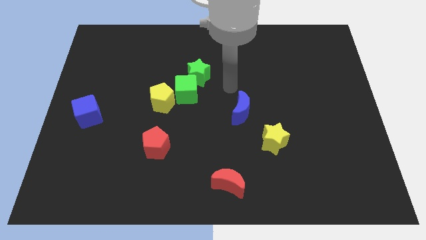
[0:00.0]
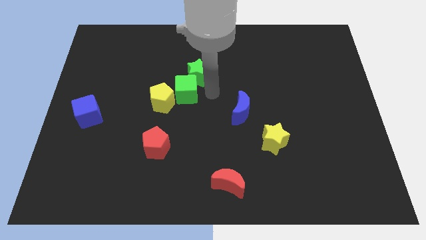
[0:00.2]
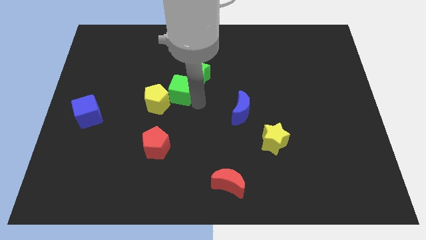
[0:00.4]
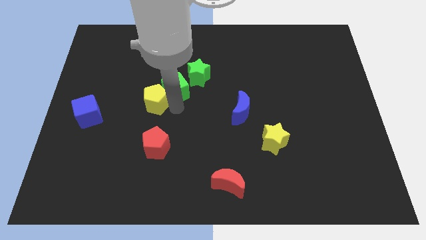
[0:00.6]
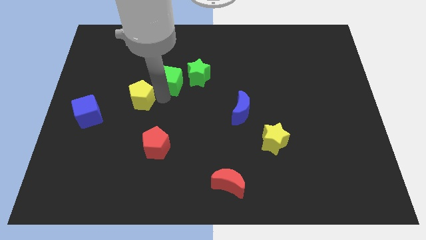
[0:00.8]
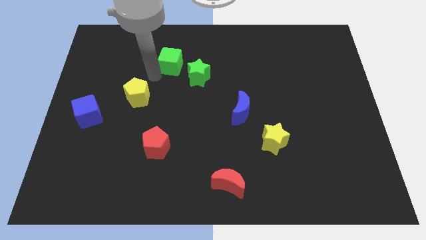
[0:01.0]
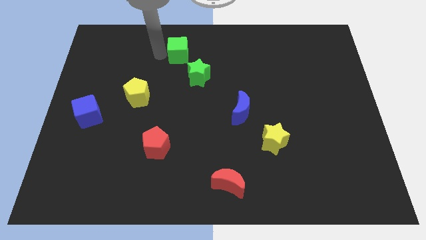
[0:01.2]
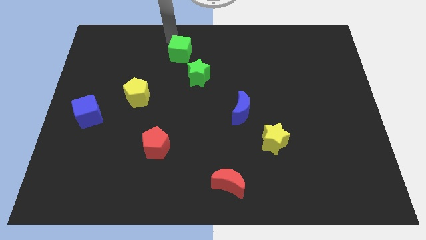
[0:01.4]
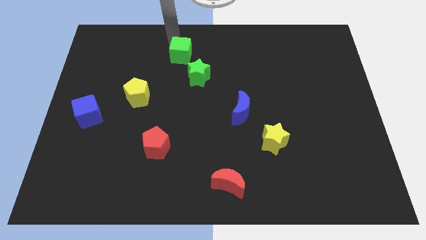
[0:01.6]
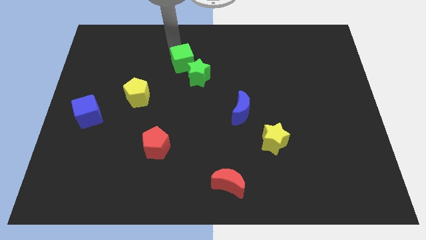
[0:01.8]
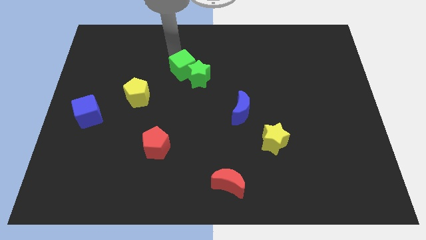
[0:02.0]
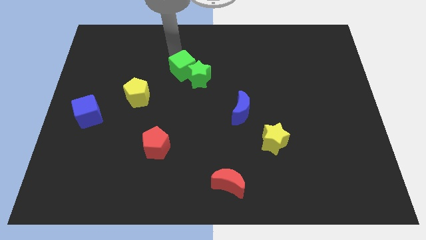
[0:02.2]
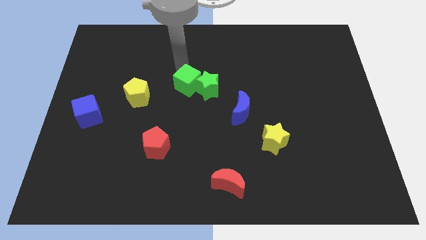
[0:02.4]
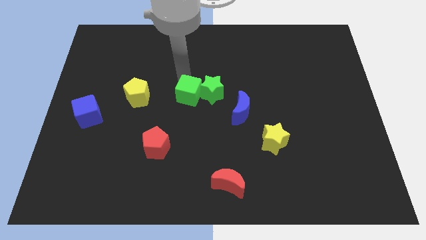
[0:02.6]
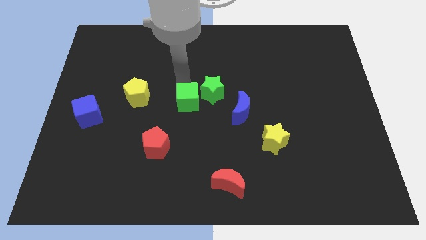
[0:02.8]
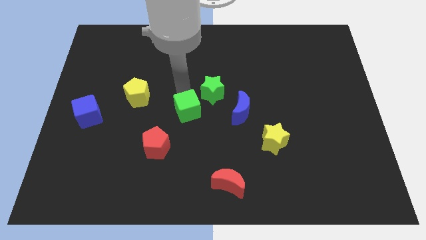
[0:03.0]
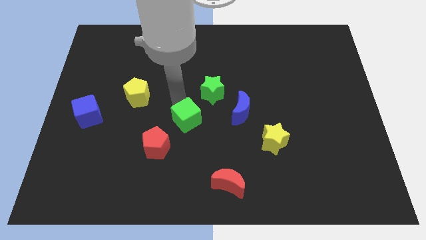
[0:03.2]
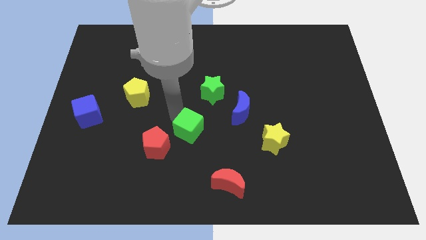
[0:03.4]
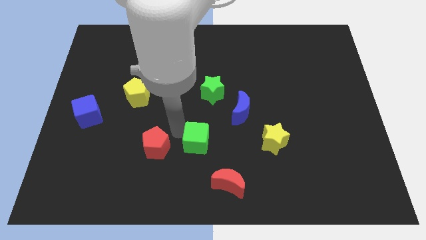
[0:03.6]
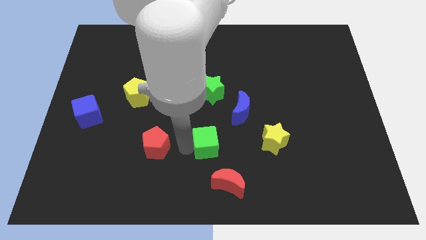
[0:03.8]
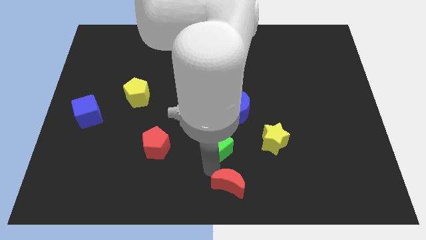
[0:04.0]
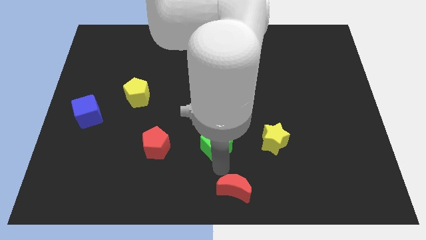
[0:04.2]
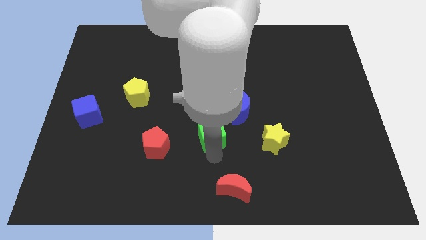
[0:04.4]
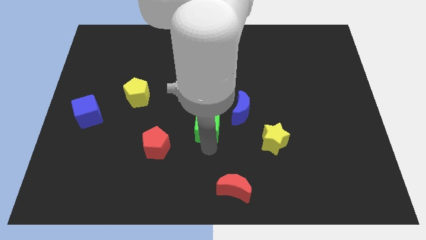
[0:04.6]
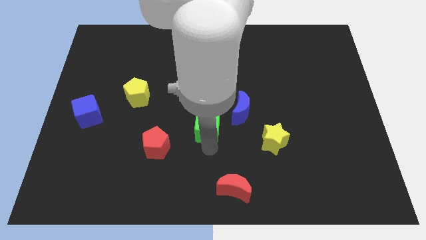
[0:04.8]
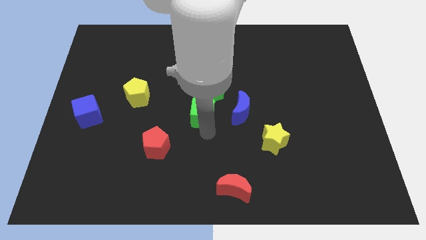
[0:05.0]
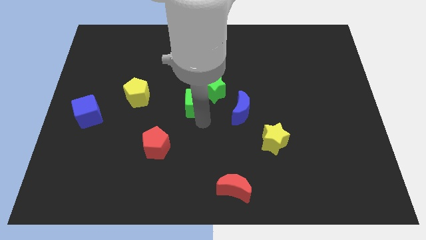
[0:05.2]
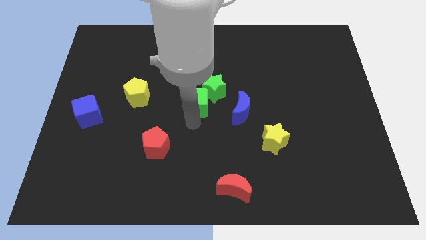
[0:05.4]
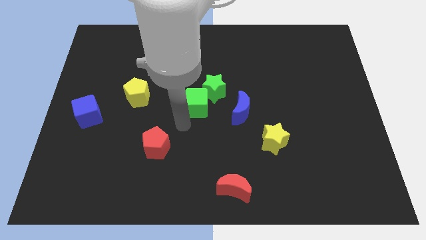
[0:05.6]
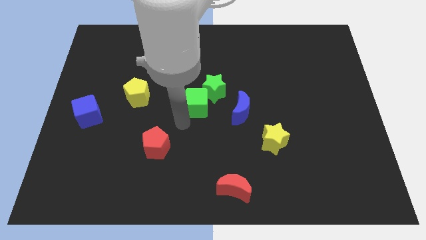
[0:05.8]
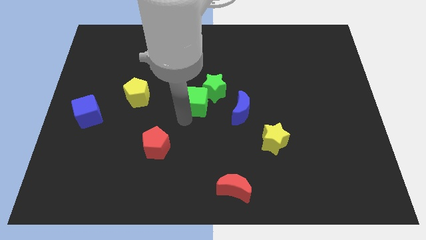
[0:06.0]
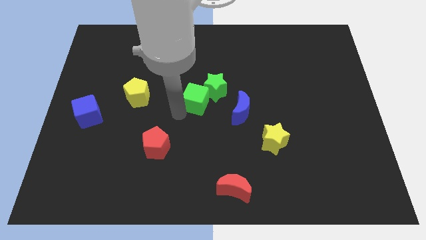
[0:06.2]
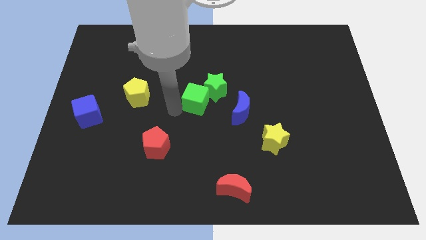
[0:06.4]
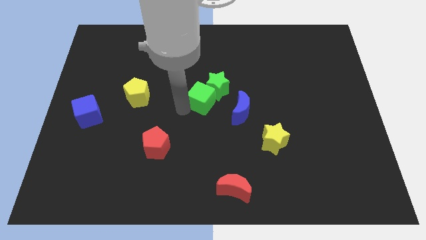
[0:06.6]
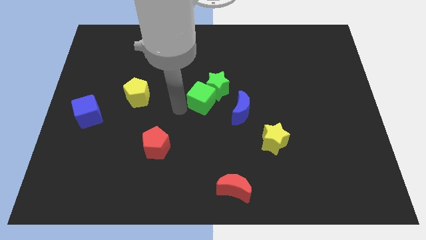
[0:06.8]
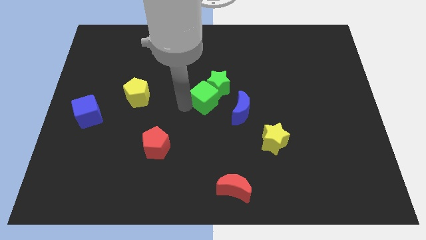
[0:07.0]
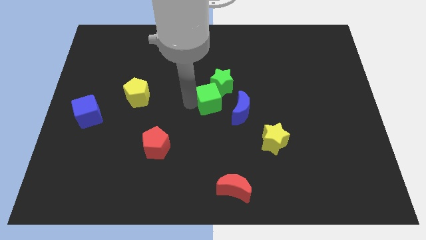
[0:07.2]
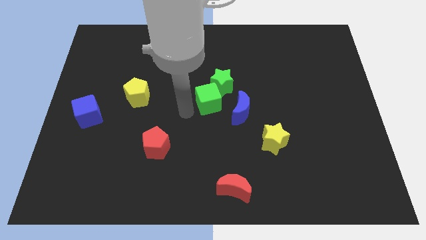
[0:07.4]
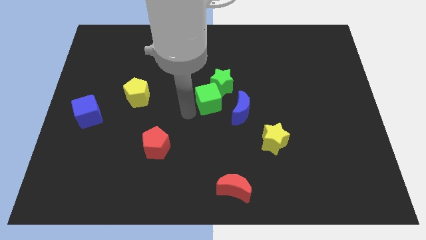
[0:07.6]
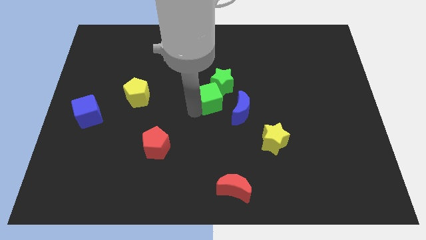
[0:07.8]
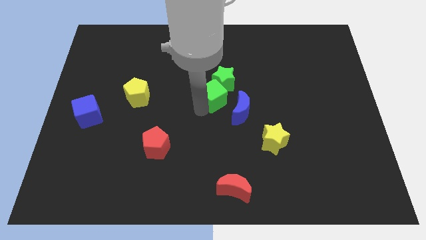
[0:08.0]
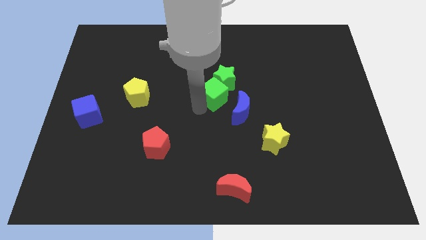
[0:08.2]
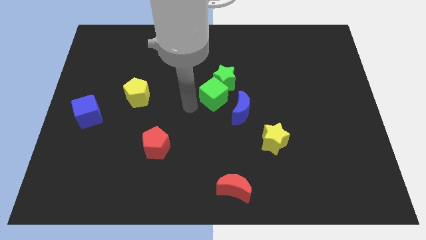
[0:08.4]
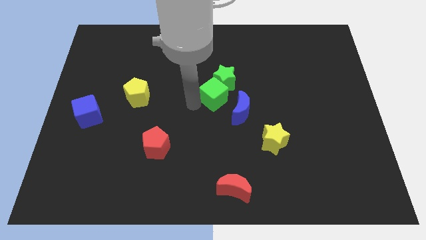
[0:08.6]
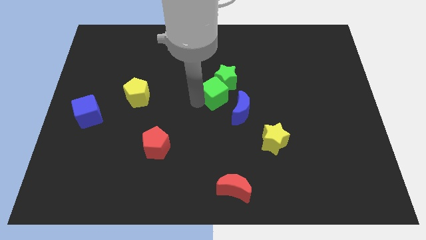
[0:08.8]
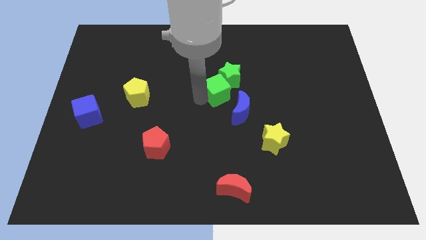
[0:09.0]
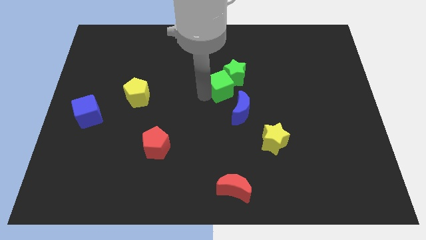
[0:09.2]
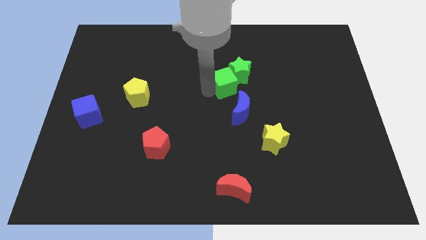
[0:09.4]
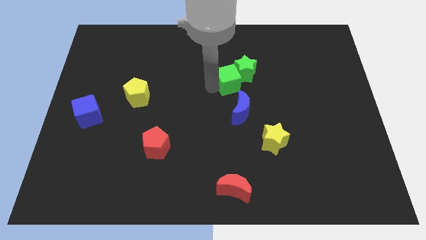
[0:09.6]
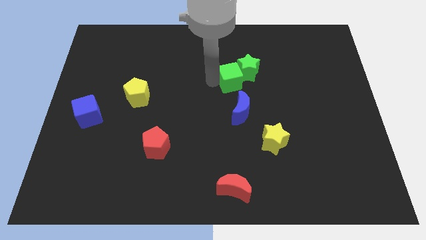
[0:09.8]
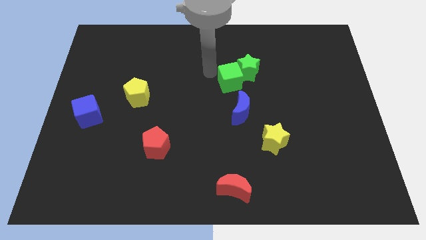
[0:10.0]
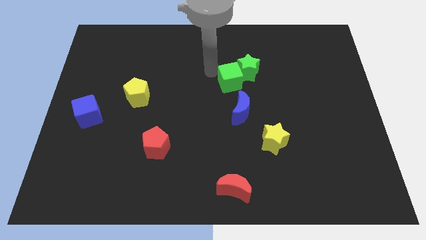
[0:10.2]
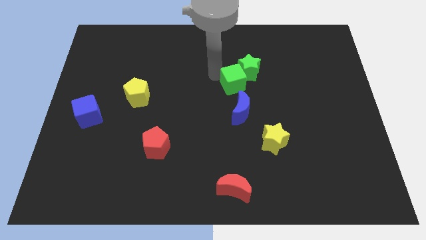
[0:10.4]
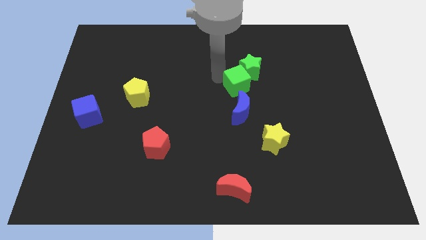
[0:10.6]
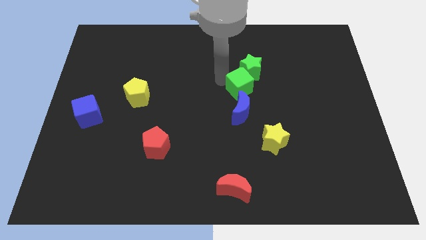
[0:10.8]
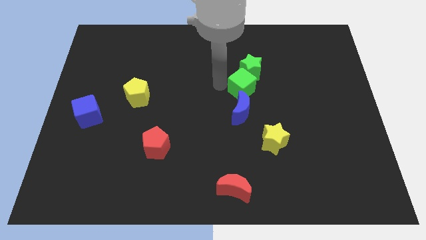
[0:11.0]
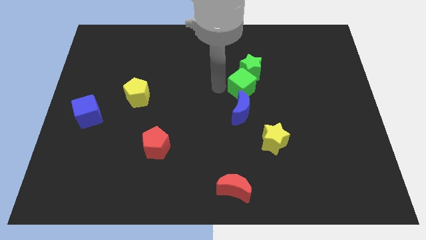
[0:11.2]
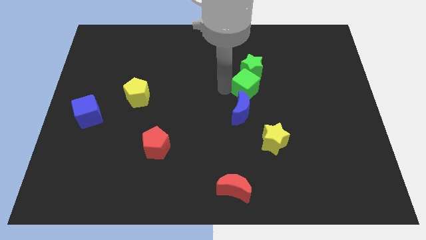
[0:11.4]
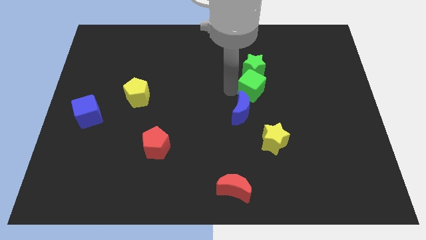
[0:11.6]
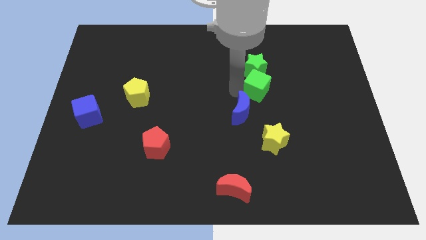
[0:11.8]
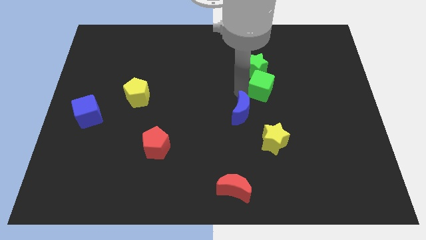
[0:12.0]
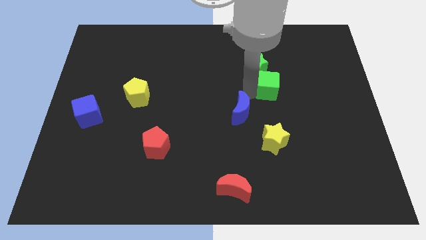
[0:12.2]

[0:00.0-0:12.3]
slide the green cube right

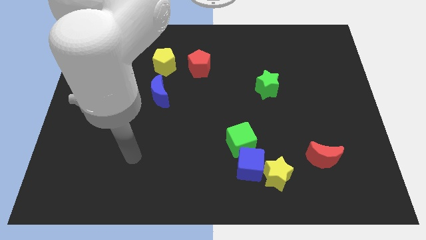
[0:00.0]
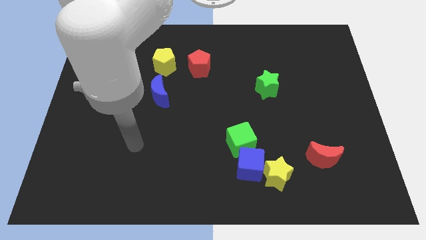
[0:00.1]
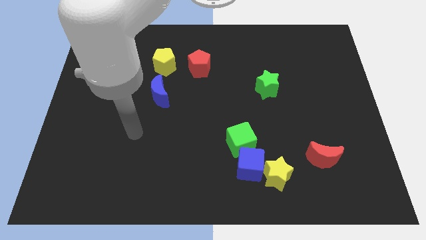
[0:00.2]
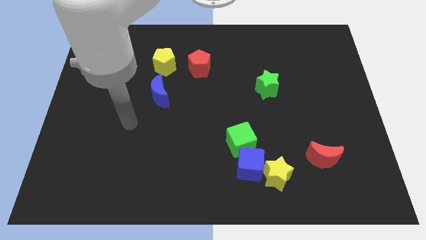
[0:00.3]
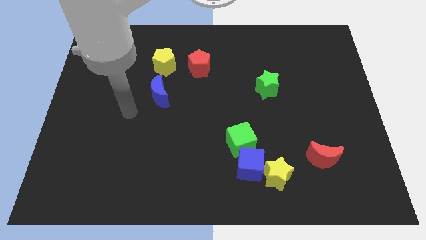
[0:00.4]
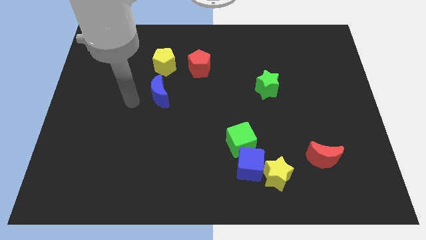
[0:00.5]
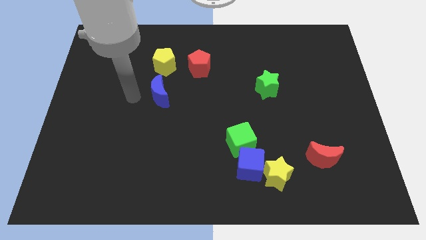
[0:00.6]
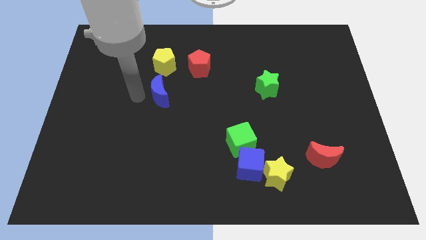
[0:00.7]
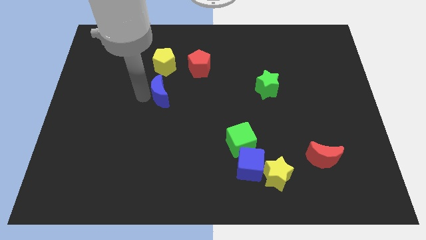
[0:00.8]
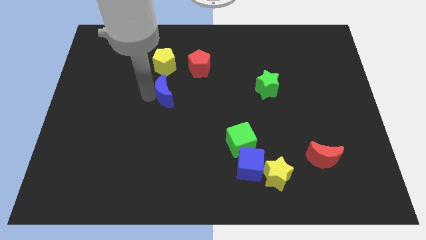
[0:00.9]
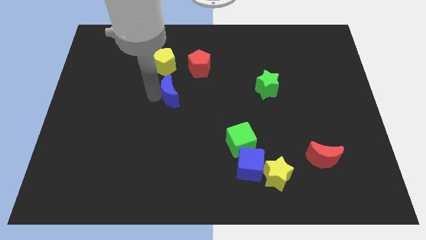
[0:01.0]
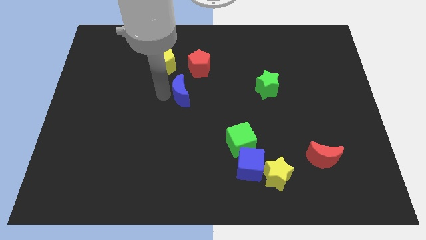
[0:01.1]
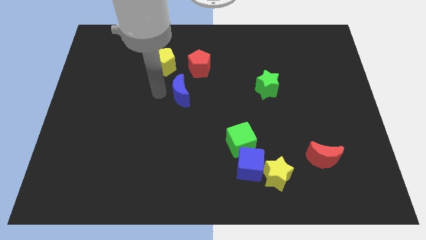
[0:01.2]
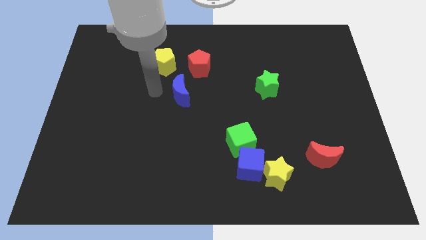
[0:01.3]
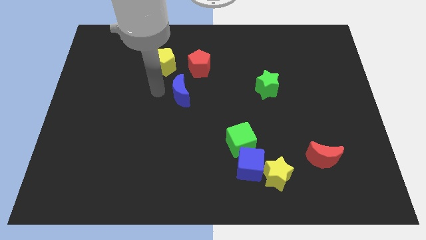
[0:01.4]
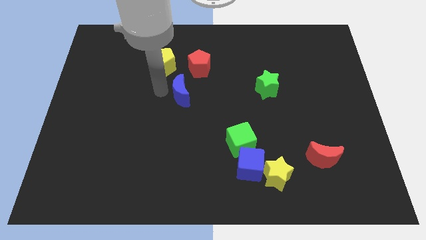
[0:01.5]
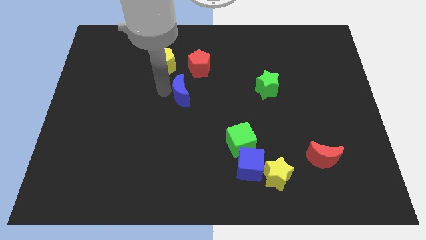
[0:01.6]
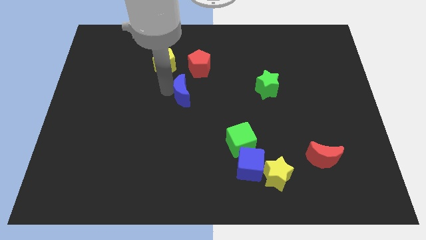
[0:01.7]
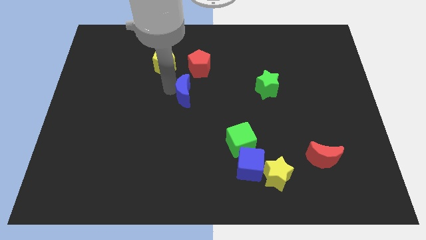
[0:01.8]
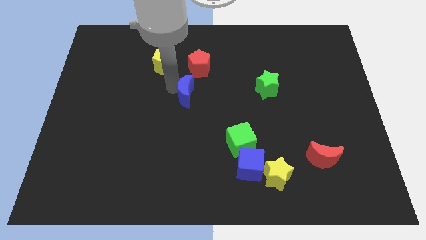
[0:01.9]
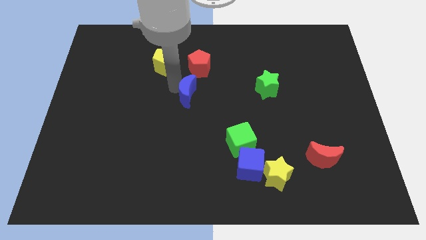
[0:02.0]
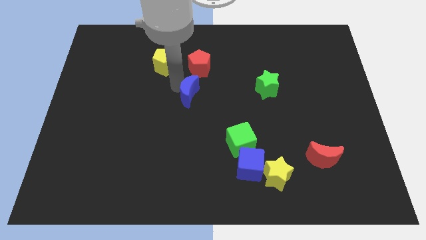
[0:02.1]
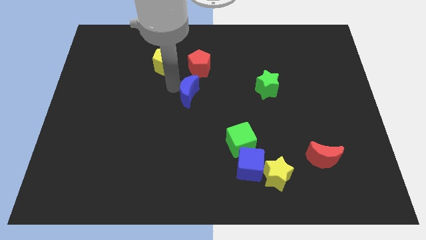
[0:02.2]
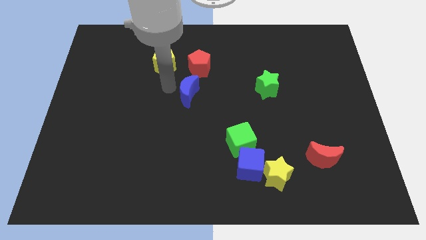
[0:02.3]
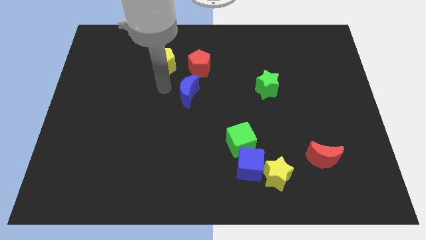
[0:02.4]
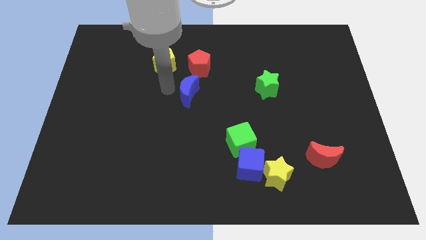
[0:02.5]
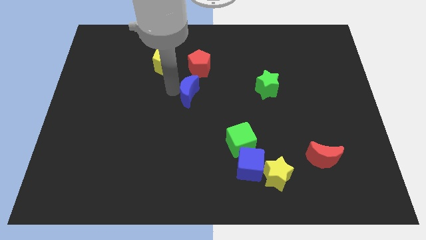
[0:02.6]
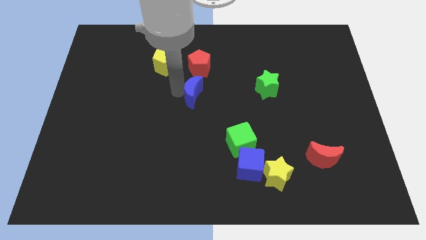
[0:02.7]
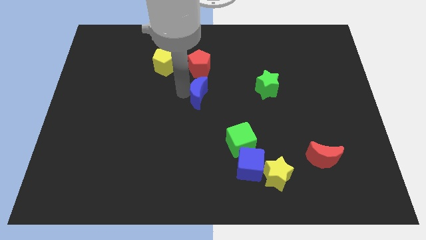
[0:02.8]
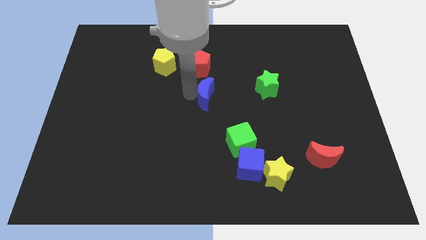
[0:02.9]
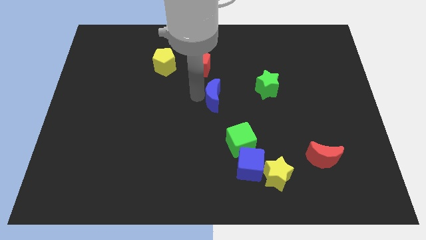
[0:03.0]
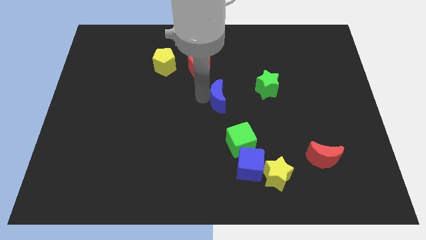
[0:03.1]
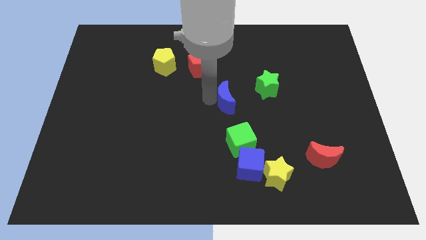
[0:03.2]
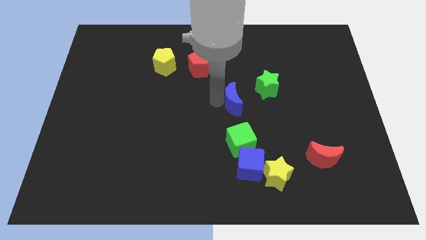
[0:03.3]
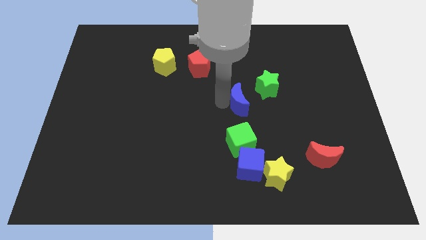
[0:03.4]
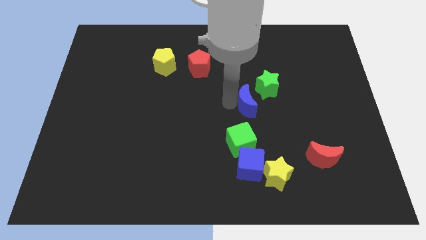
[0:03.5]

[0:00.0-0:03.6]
move the blue moon to the right
